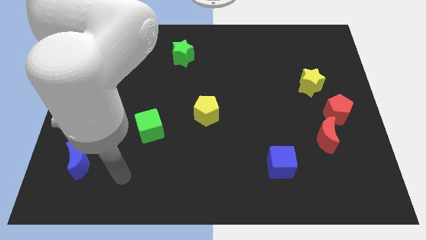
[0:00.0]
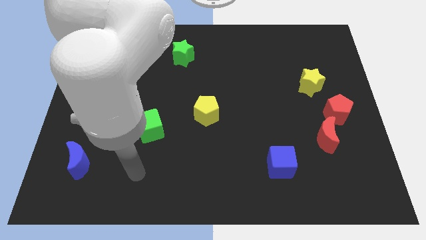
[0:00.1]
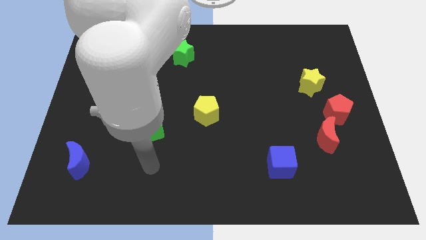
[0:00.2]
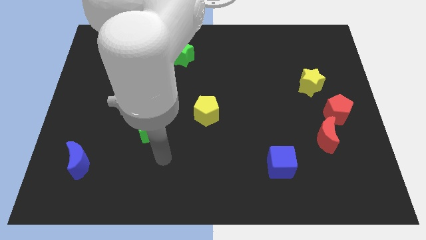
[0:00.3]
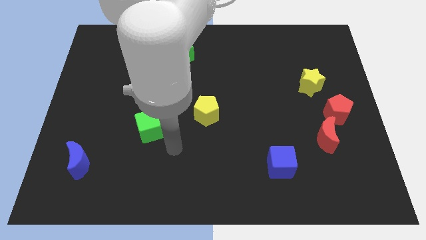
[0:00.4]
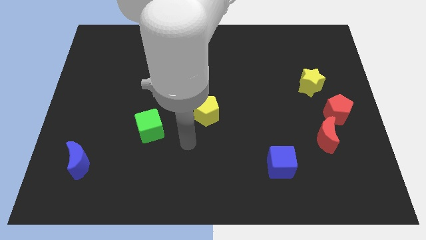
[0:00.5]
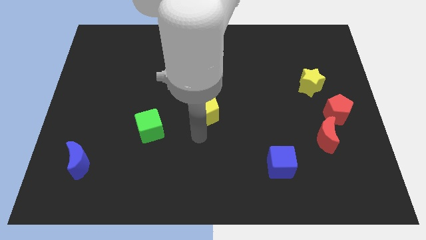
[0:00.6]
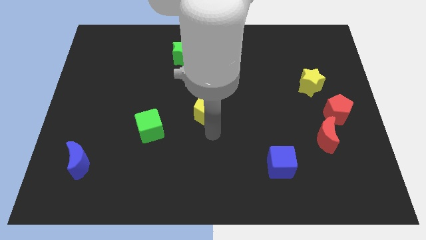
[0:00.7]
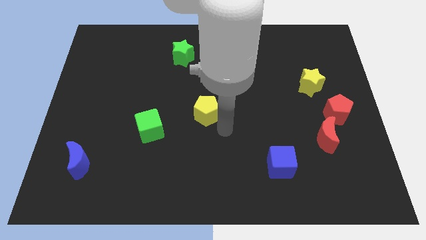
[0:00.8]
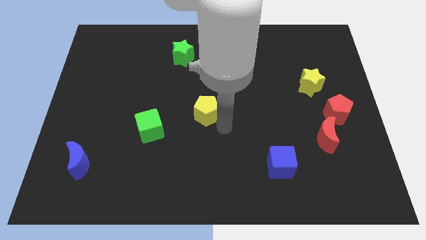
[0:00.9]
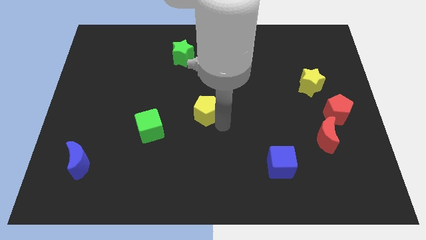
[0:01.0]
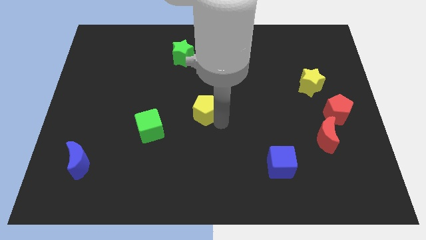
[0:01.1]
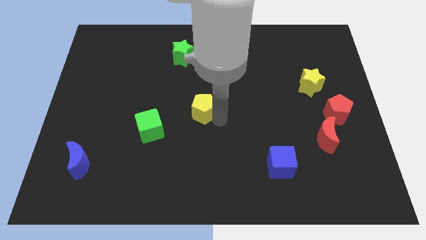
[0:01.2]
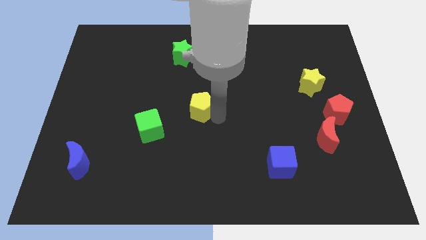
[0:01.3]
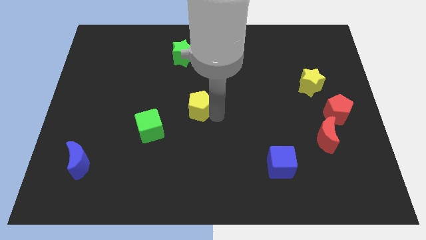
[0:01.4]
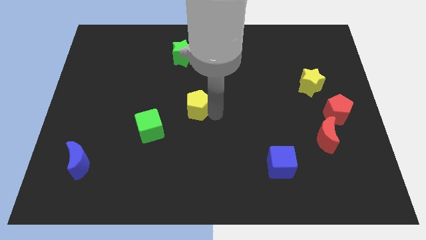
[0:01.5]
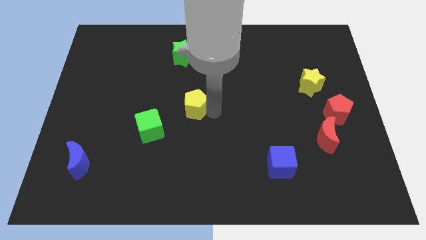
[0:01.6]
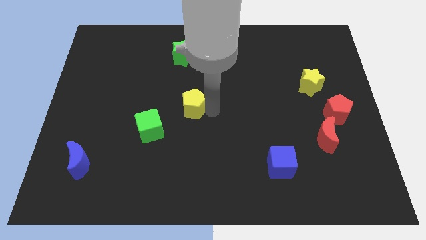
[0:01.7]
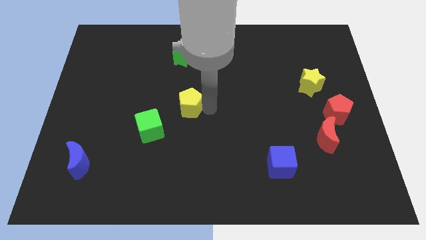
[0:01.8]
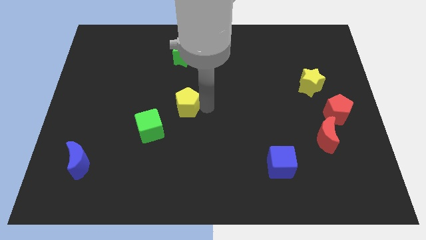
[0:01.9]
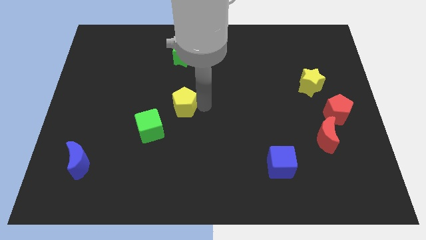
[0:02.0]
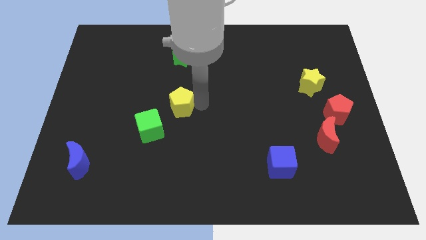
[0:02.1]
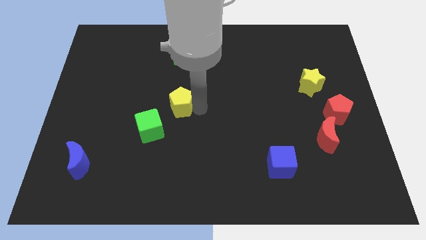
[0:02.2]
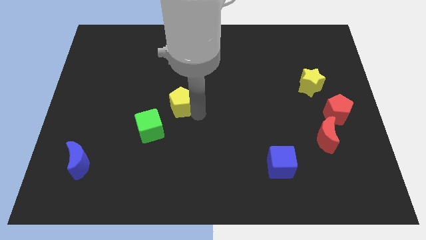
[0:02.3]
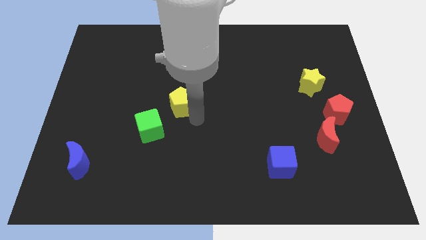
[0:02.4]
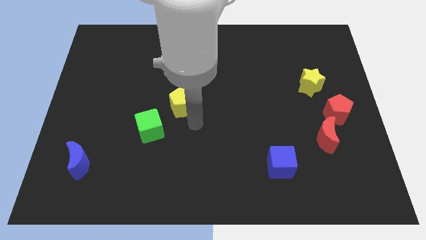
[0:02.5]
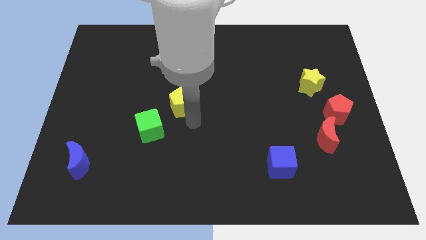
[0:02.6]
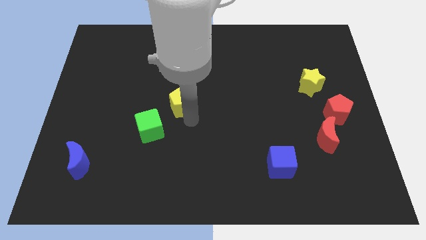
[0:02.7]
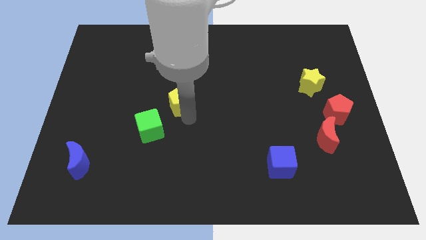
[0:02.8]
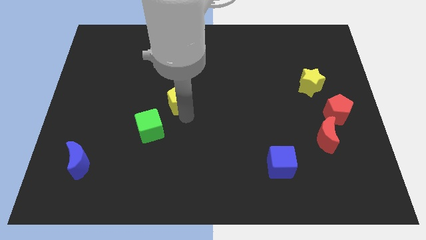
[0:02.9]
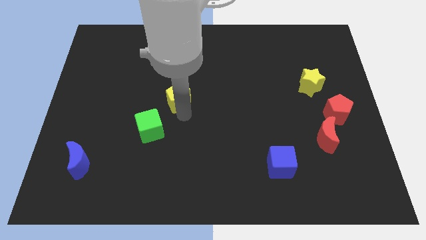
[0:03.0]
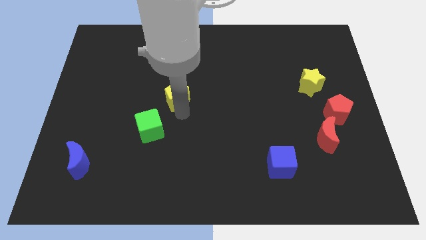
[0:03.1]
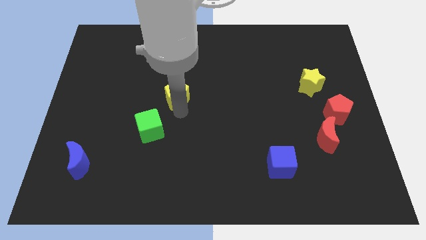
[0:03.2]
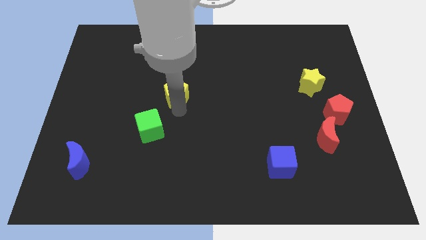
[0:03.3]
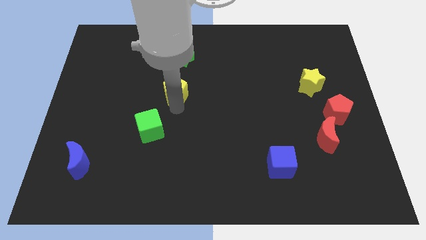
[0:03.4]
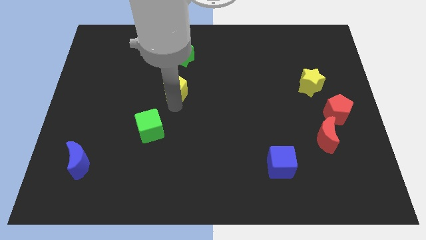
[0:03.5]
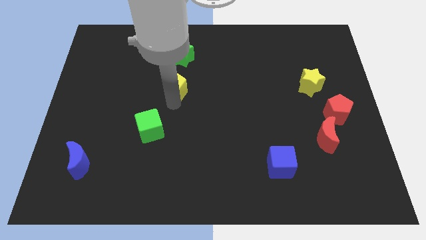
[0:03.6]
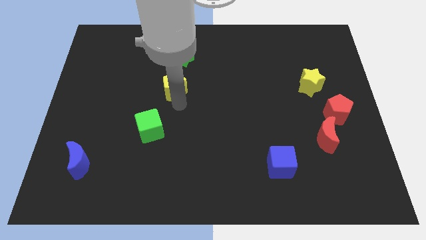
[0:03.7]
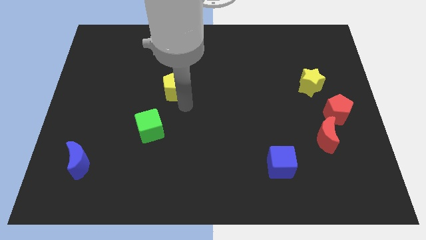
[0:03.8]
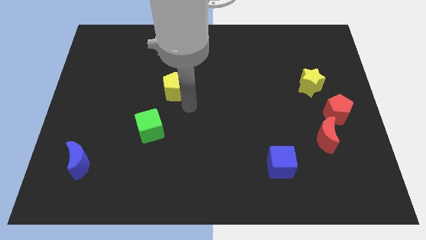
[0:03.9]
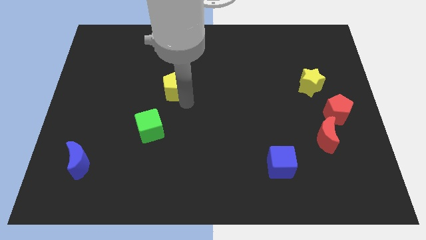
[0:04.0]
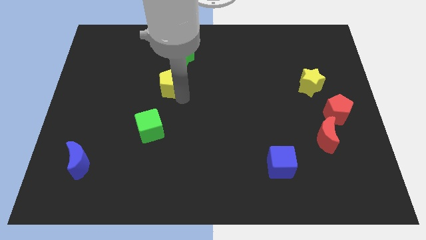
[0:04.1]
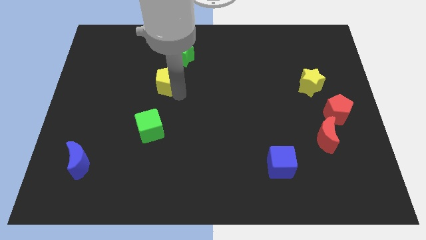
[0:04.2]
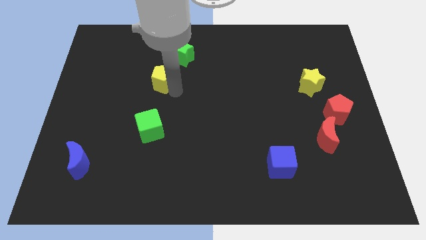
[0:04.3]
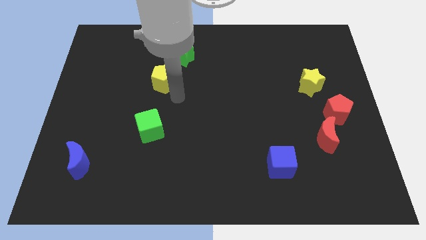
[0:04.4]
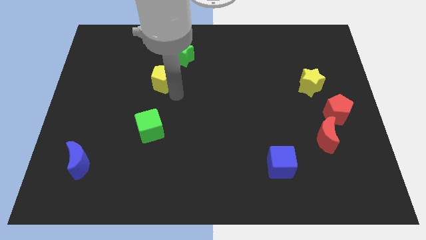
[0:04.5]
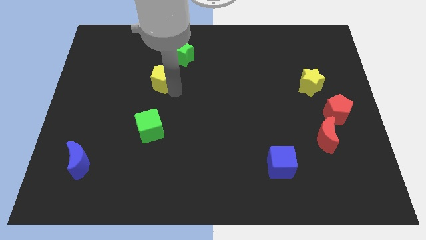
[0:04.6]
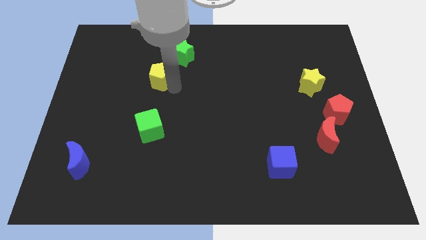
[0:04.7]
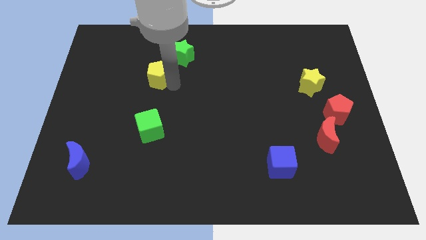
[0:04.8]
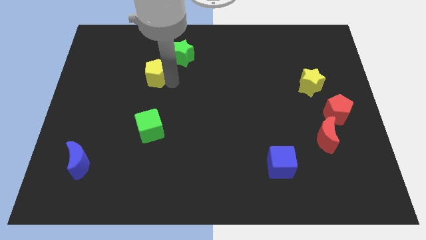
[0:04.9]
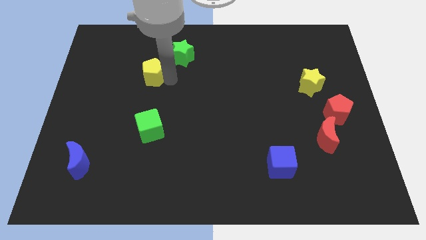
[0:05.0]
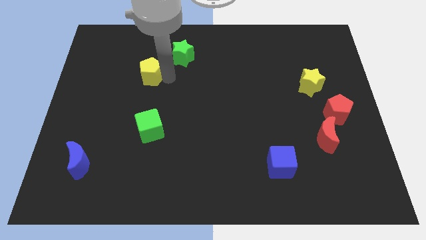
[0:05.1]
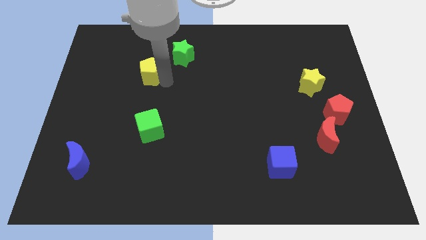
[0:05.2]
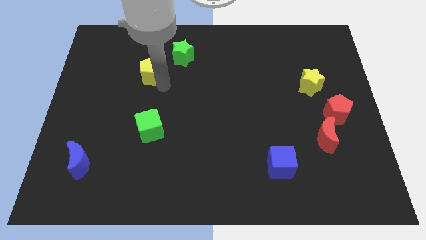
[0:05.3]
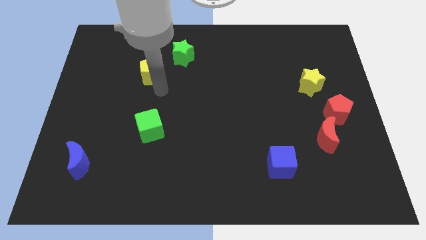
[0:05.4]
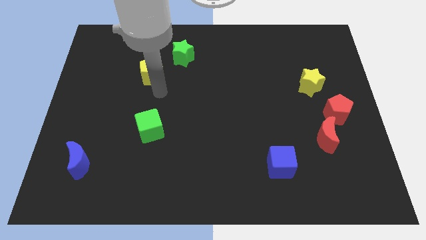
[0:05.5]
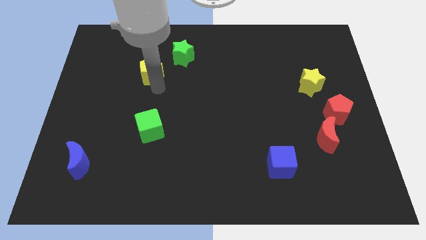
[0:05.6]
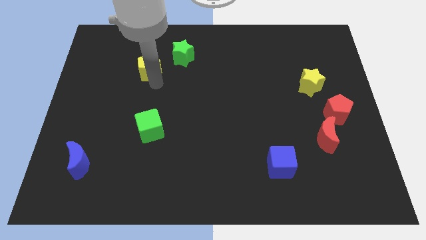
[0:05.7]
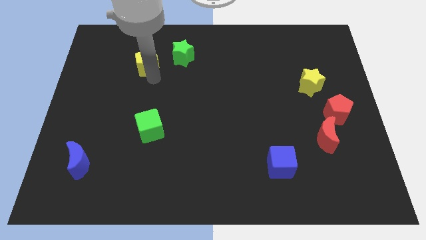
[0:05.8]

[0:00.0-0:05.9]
move the yellow pentagon left of the green star
